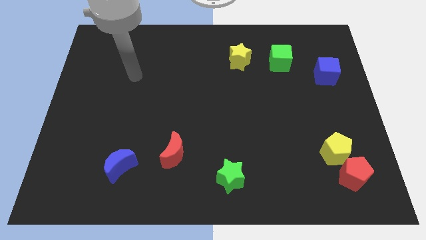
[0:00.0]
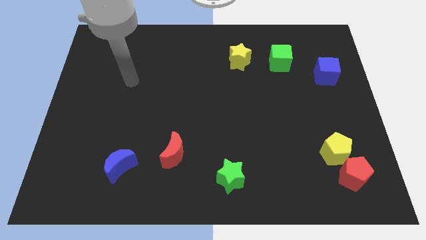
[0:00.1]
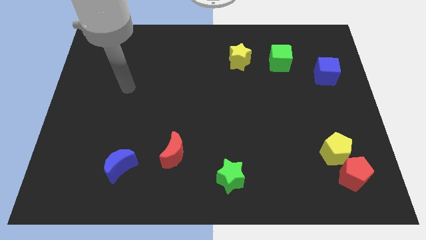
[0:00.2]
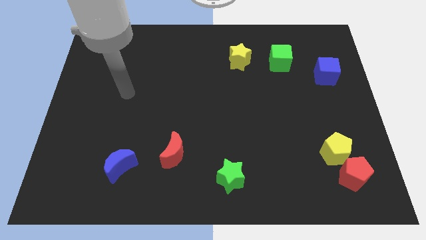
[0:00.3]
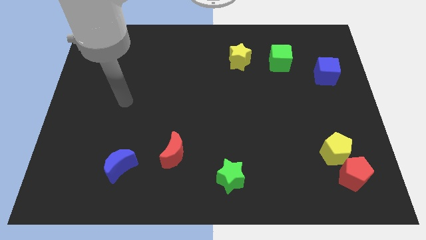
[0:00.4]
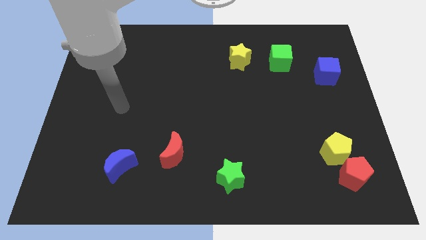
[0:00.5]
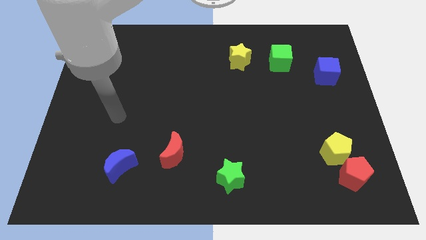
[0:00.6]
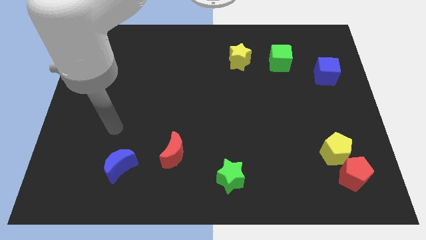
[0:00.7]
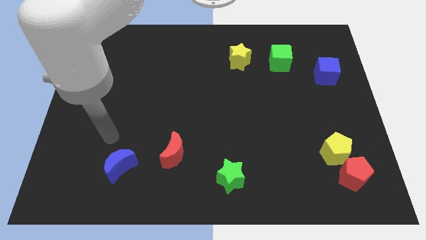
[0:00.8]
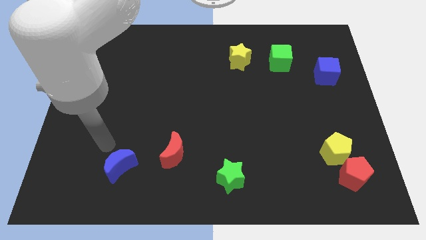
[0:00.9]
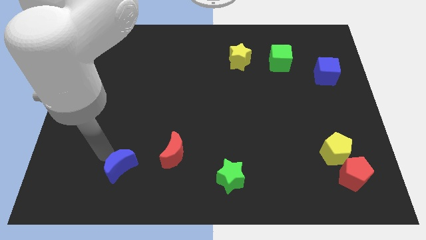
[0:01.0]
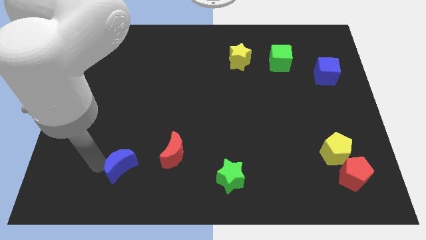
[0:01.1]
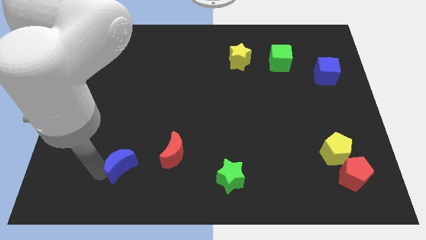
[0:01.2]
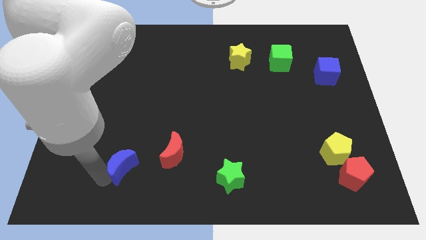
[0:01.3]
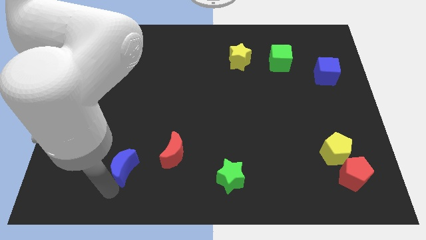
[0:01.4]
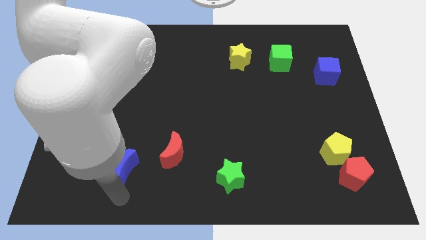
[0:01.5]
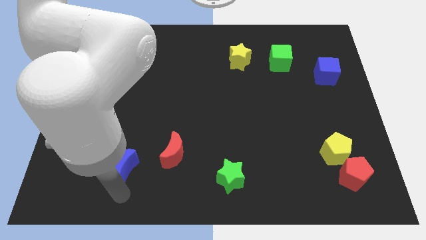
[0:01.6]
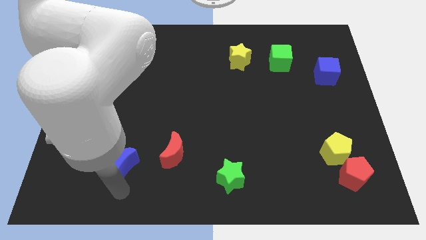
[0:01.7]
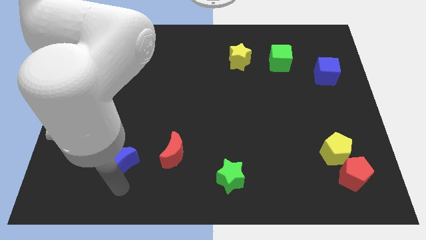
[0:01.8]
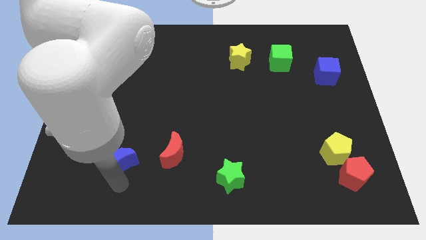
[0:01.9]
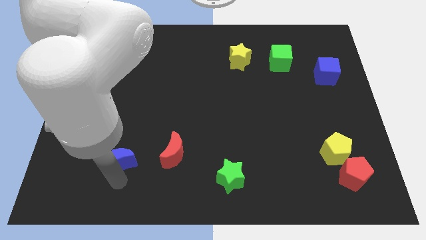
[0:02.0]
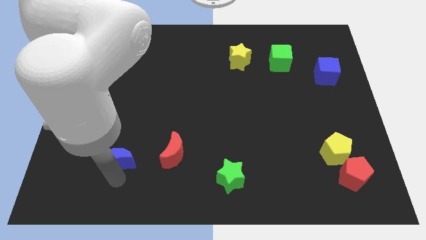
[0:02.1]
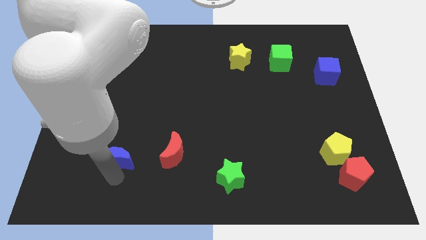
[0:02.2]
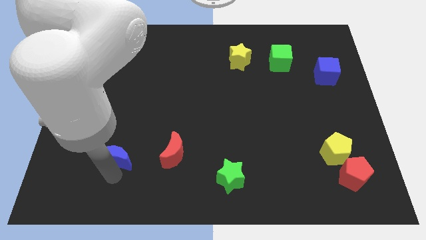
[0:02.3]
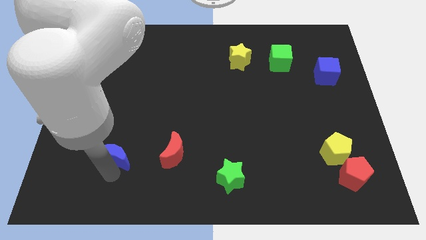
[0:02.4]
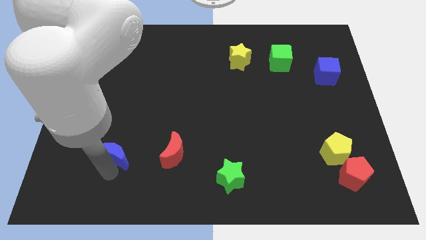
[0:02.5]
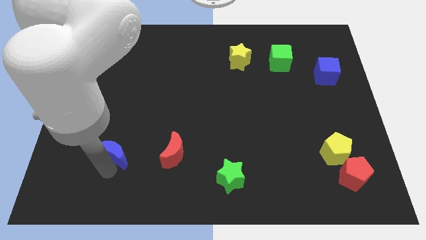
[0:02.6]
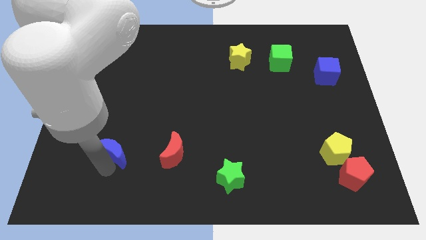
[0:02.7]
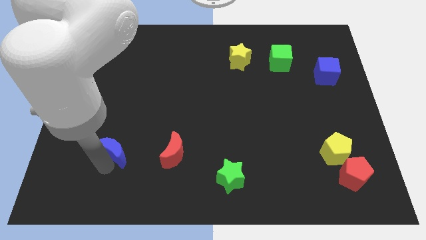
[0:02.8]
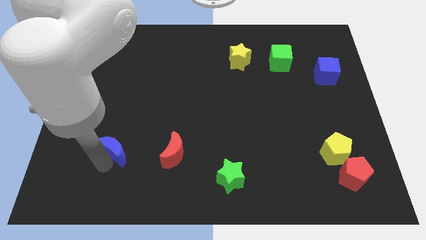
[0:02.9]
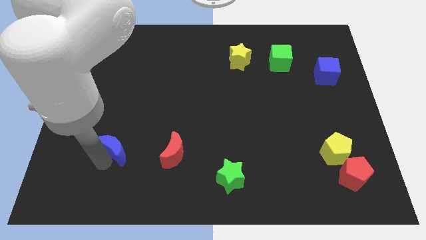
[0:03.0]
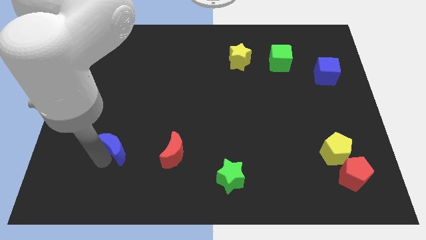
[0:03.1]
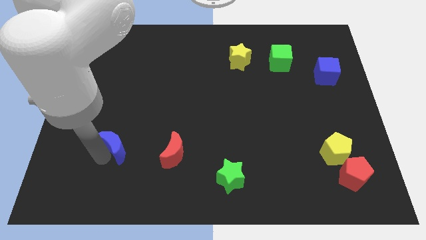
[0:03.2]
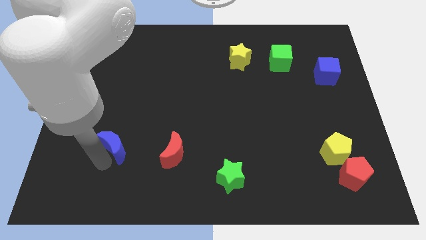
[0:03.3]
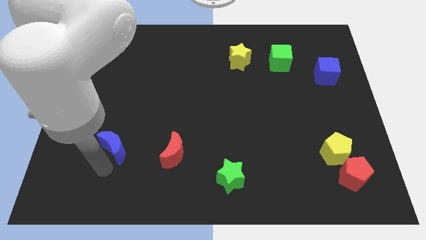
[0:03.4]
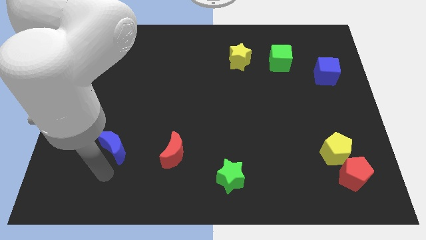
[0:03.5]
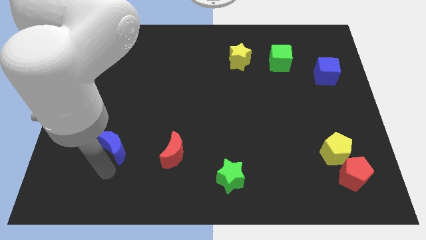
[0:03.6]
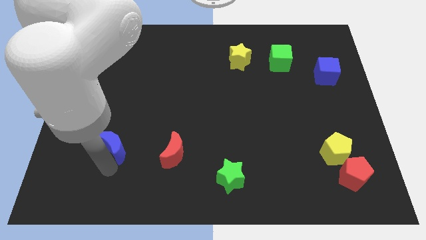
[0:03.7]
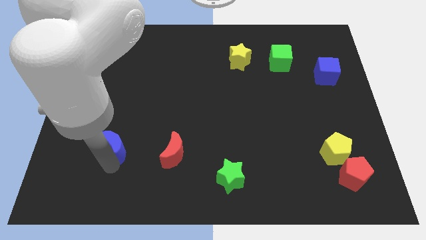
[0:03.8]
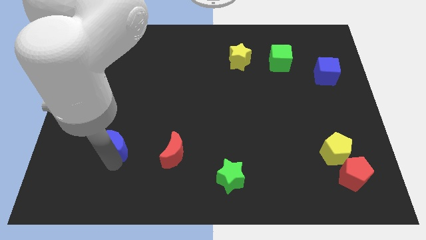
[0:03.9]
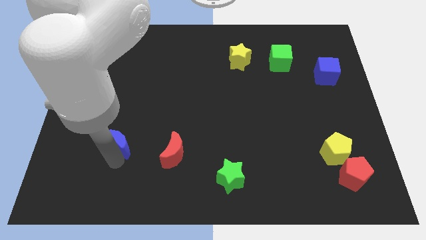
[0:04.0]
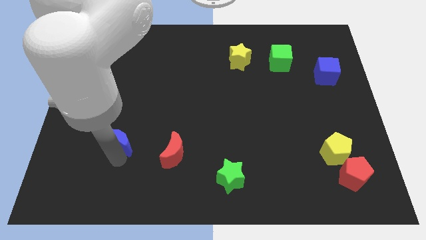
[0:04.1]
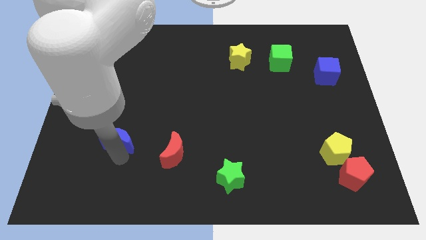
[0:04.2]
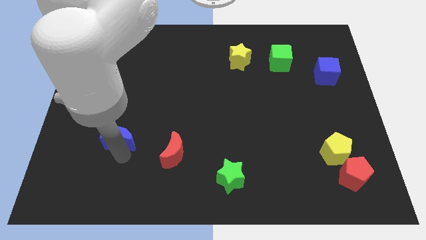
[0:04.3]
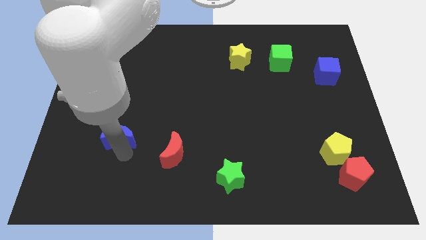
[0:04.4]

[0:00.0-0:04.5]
slide the blue moon slightly upwards

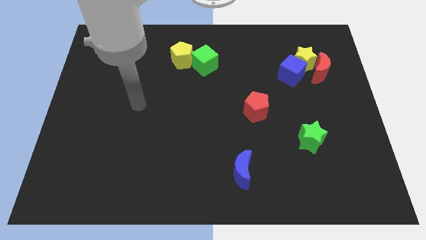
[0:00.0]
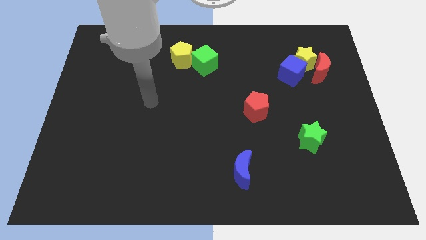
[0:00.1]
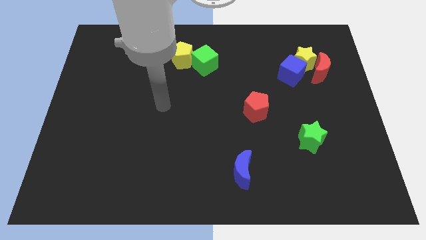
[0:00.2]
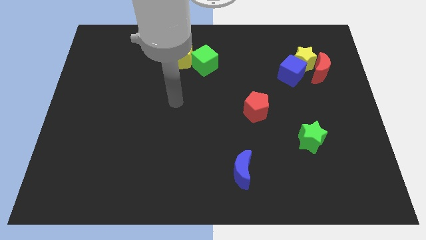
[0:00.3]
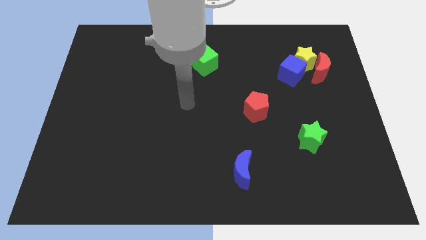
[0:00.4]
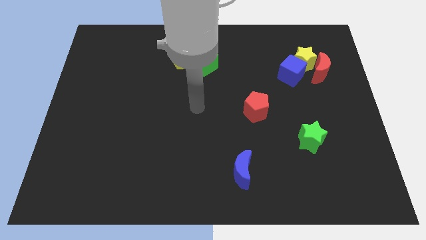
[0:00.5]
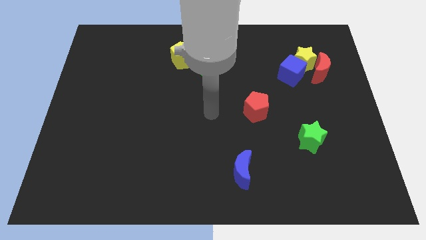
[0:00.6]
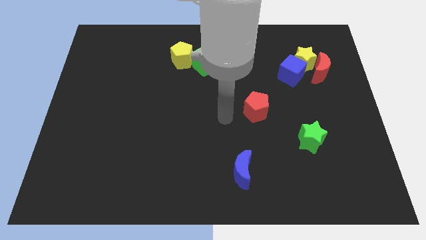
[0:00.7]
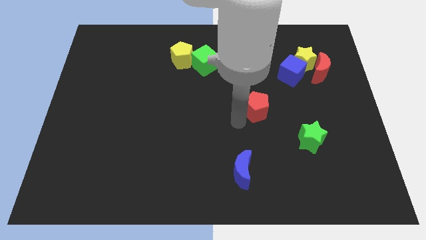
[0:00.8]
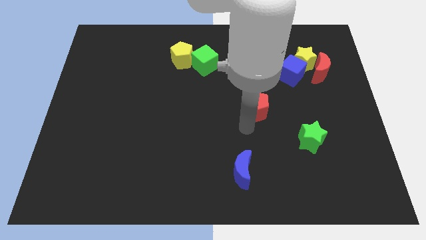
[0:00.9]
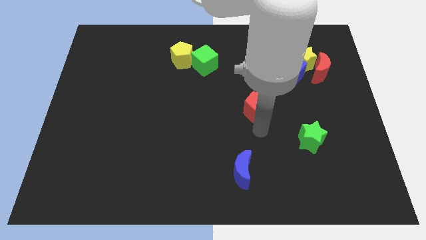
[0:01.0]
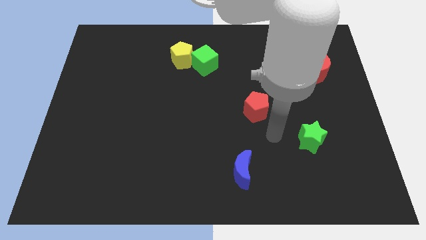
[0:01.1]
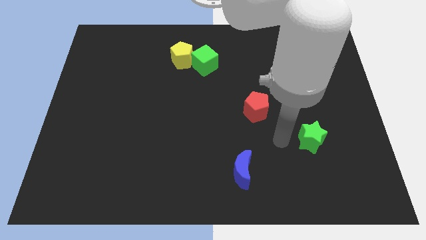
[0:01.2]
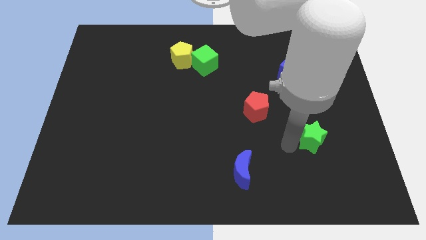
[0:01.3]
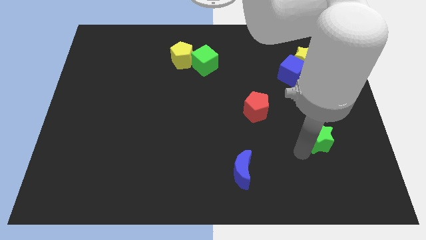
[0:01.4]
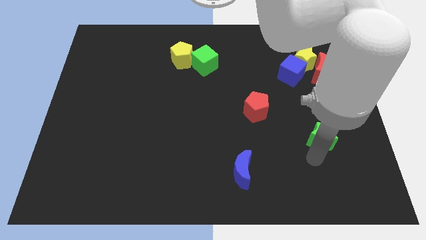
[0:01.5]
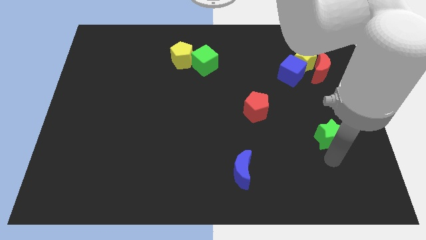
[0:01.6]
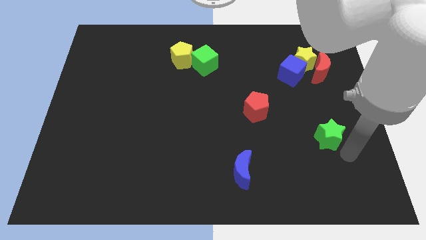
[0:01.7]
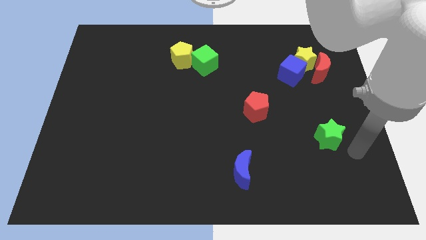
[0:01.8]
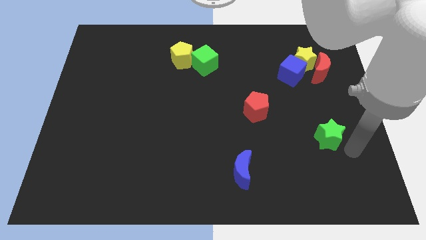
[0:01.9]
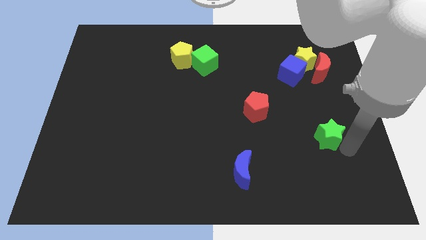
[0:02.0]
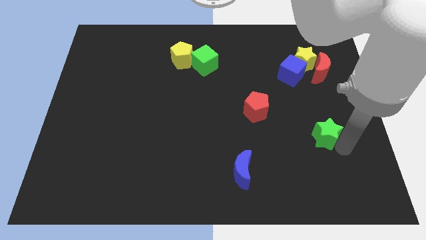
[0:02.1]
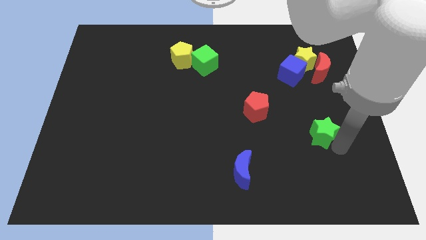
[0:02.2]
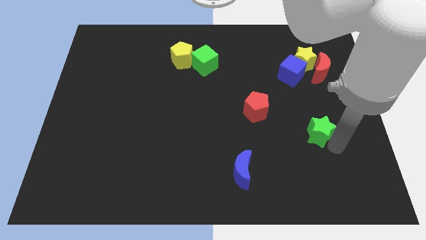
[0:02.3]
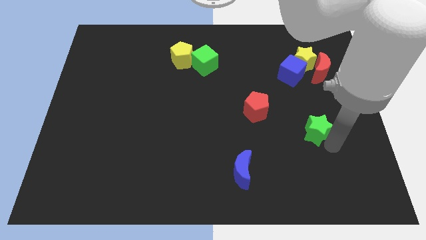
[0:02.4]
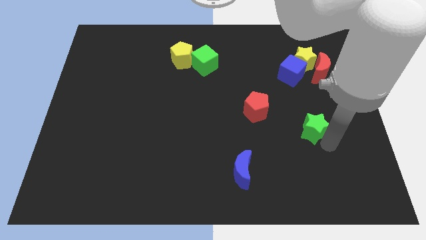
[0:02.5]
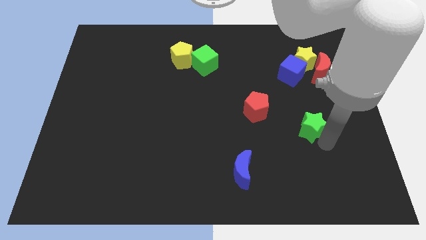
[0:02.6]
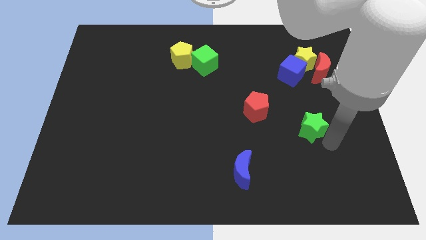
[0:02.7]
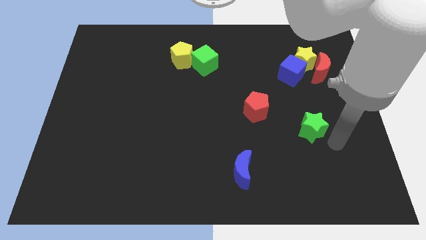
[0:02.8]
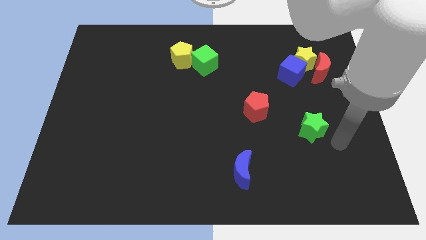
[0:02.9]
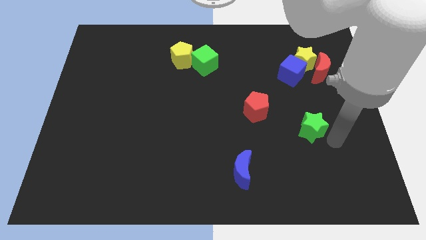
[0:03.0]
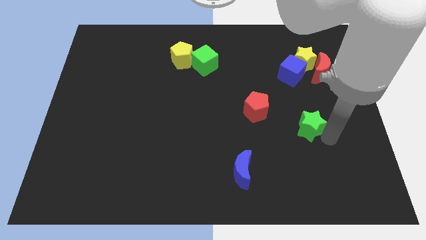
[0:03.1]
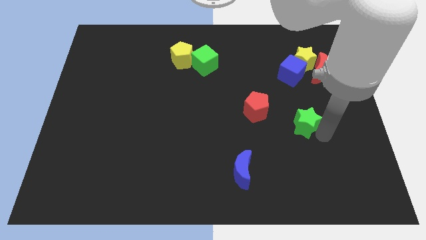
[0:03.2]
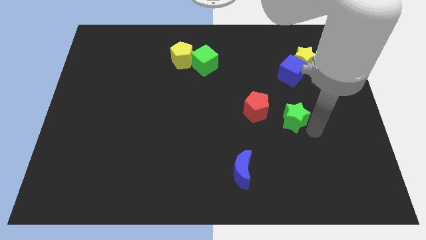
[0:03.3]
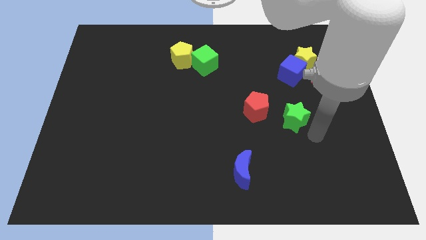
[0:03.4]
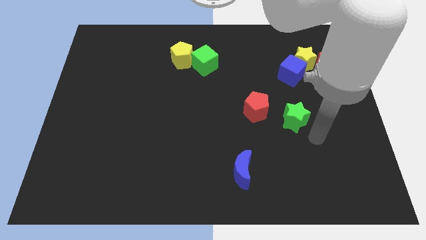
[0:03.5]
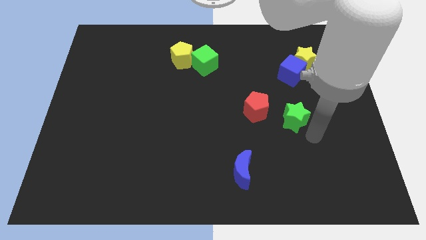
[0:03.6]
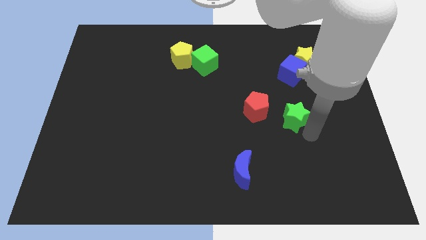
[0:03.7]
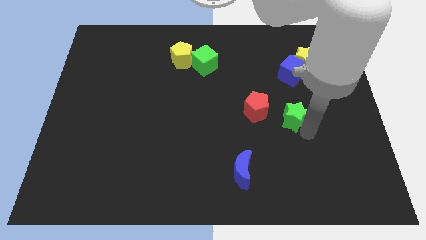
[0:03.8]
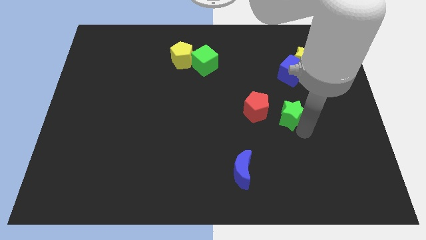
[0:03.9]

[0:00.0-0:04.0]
move the green star a bit up and then to the left
